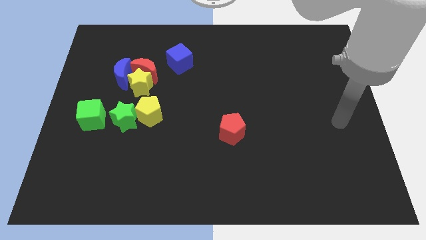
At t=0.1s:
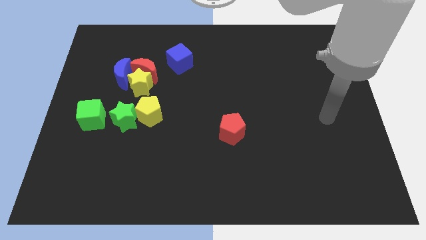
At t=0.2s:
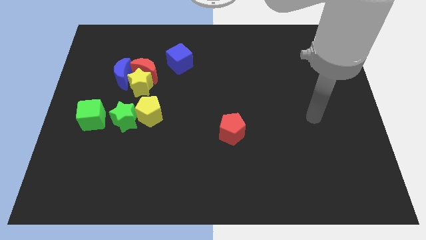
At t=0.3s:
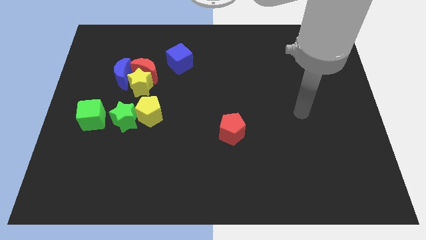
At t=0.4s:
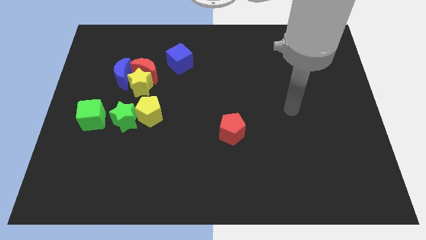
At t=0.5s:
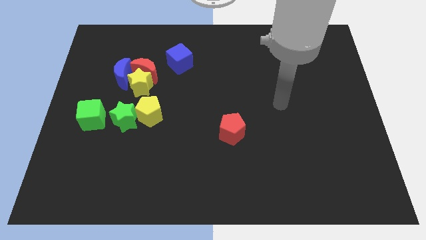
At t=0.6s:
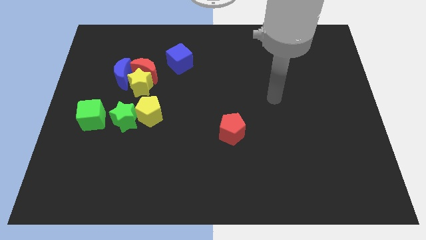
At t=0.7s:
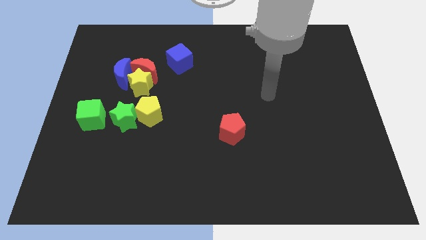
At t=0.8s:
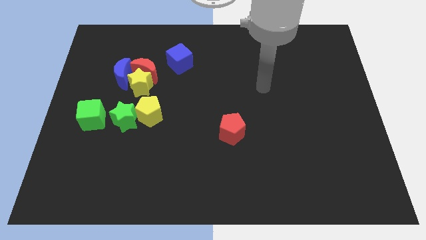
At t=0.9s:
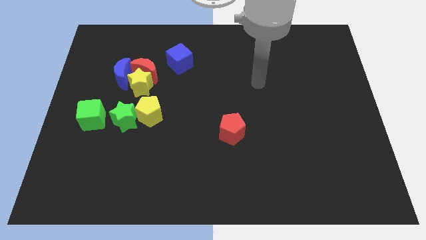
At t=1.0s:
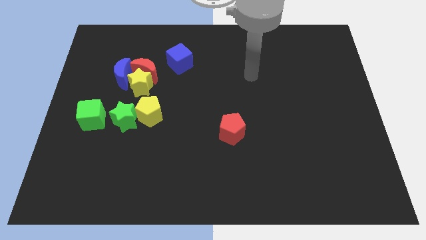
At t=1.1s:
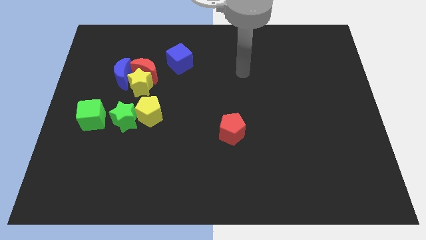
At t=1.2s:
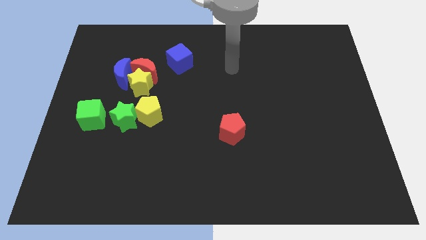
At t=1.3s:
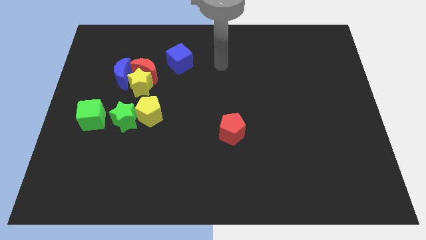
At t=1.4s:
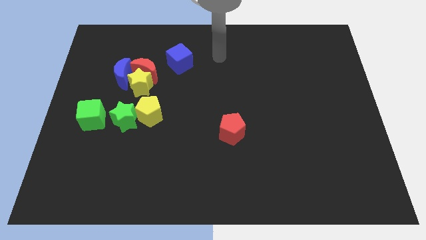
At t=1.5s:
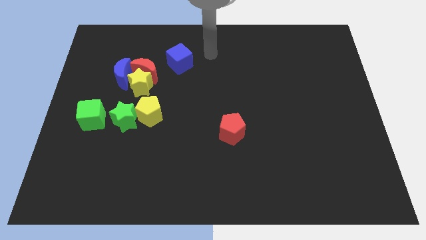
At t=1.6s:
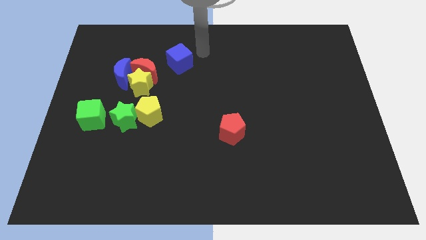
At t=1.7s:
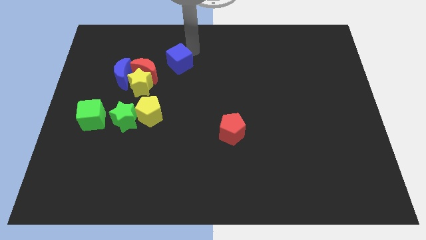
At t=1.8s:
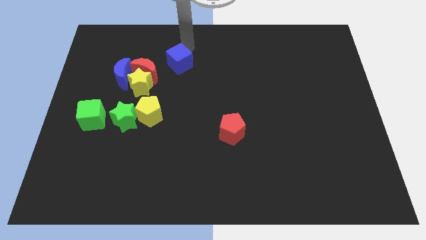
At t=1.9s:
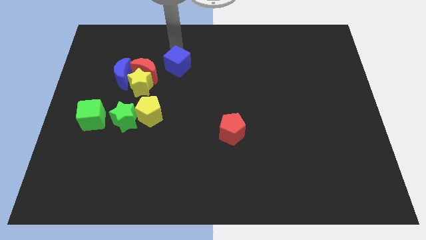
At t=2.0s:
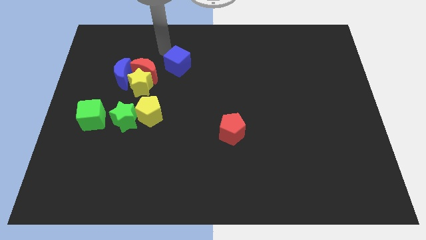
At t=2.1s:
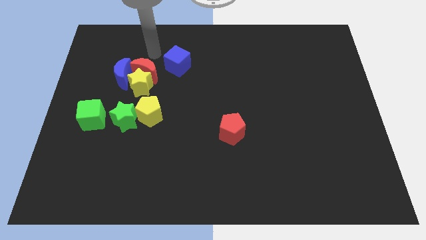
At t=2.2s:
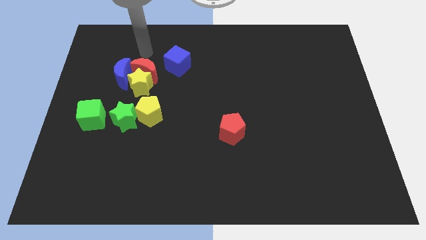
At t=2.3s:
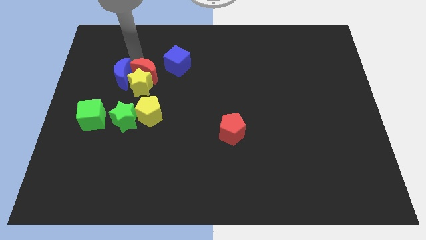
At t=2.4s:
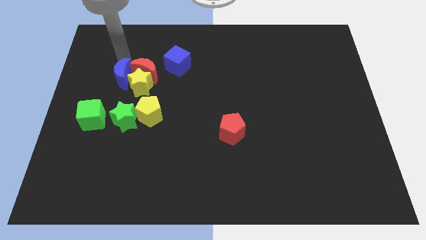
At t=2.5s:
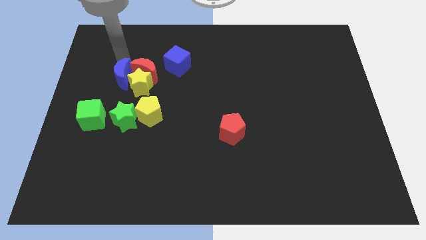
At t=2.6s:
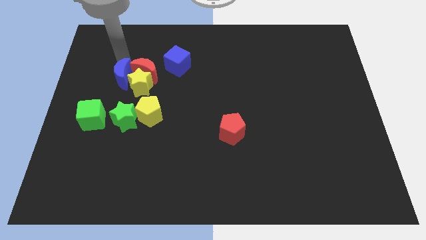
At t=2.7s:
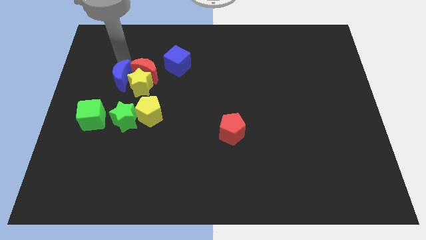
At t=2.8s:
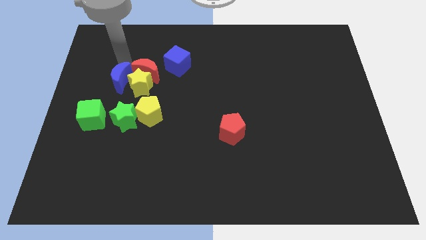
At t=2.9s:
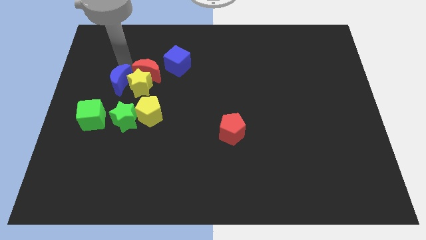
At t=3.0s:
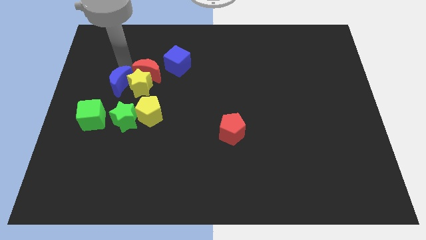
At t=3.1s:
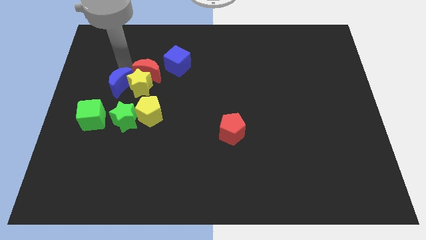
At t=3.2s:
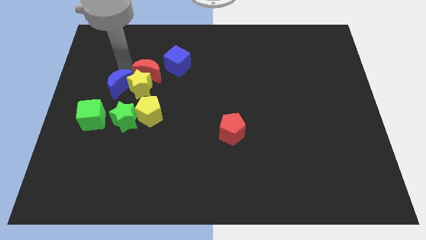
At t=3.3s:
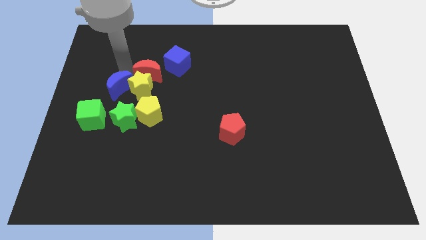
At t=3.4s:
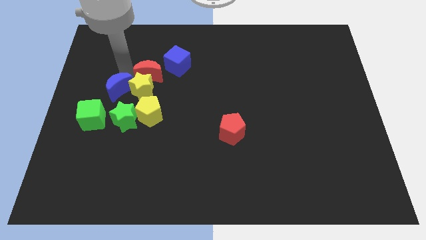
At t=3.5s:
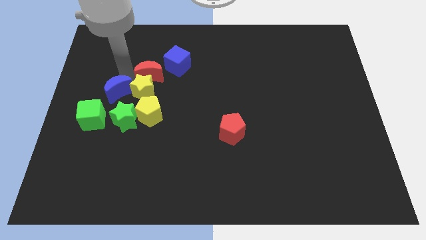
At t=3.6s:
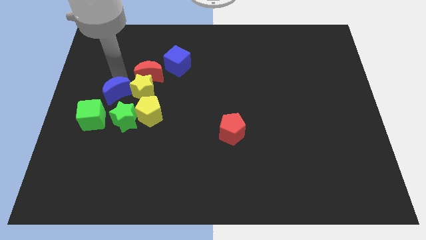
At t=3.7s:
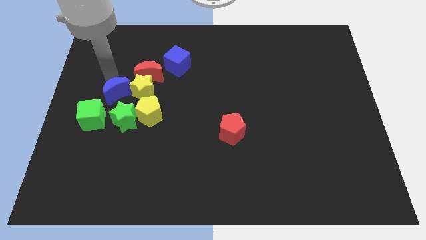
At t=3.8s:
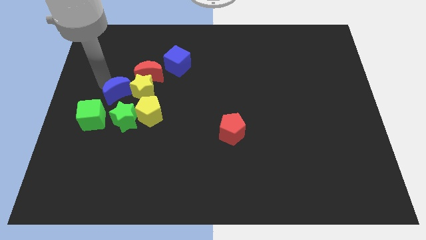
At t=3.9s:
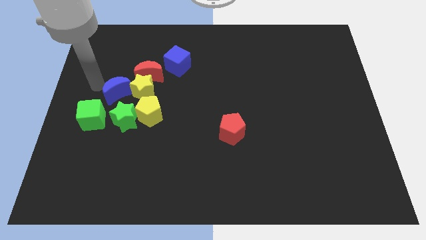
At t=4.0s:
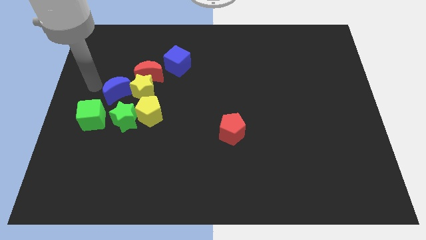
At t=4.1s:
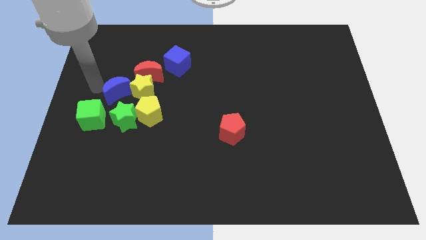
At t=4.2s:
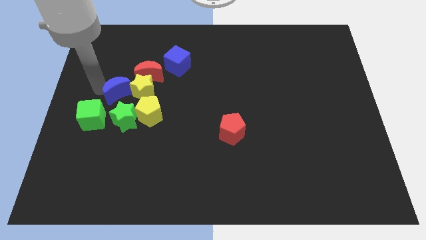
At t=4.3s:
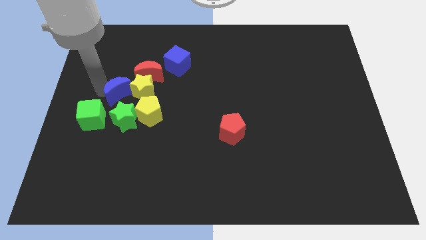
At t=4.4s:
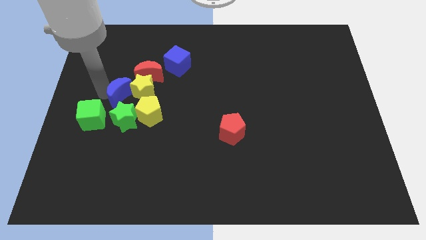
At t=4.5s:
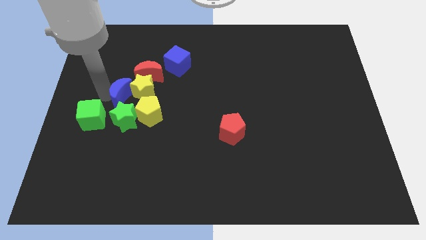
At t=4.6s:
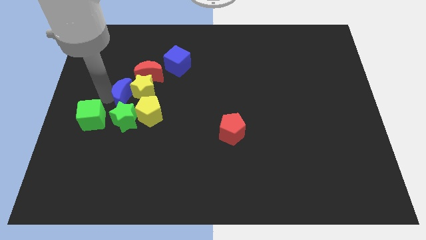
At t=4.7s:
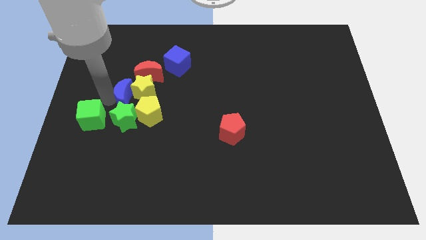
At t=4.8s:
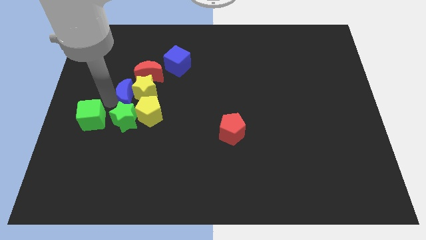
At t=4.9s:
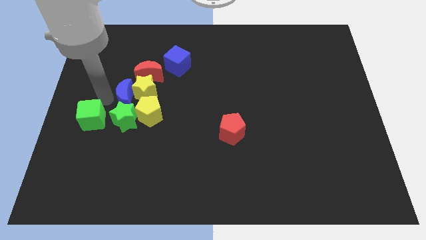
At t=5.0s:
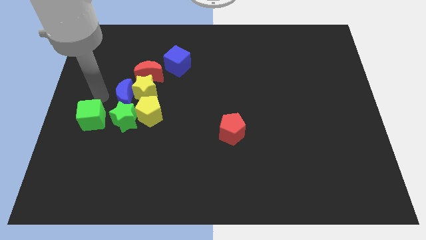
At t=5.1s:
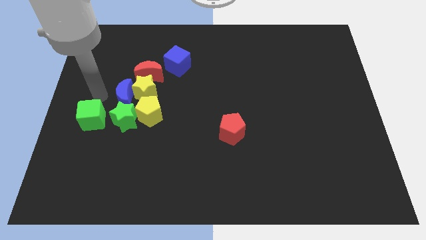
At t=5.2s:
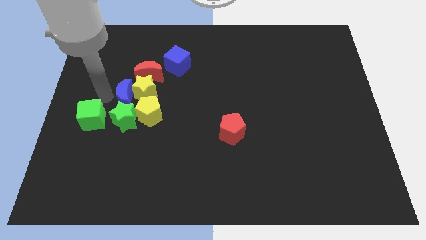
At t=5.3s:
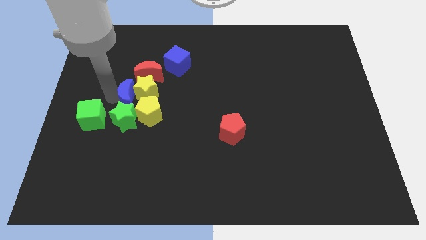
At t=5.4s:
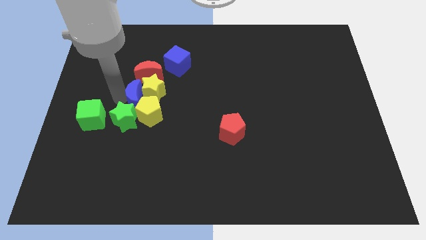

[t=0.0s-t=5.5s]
slide the blue moon down and then right a little bit

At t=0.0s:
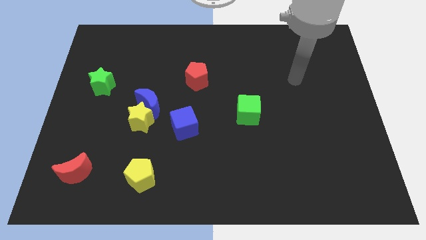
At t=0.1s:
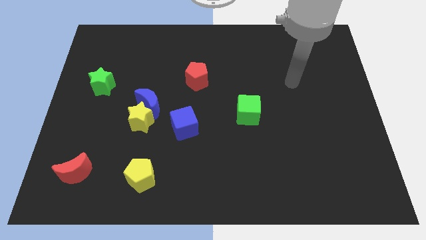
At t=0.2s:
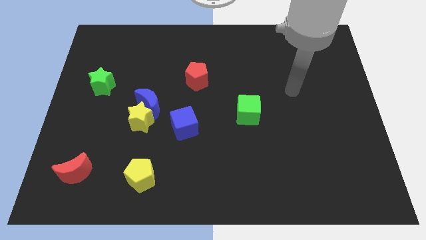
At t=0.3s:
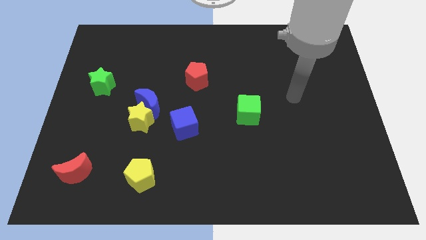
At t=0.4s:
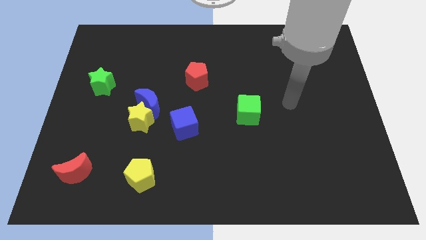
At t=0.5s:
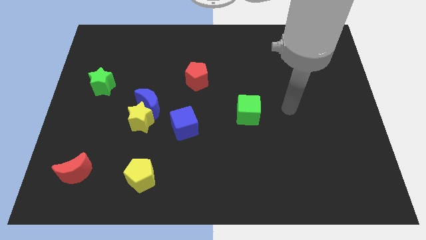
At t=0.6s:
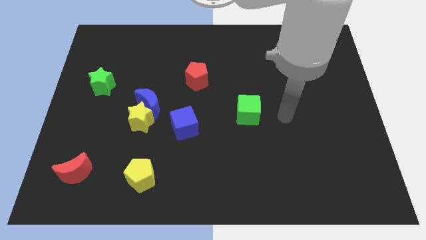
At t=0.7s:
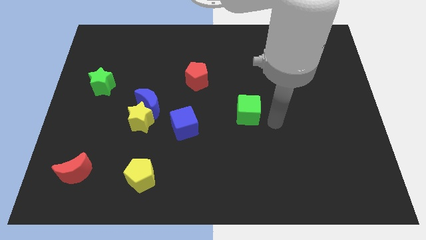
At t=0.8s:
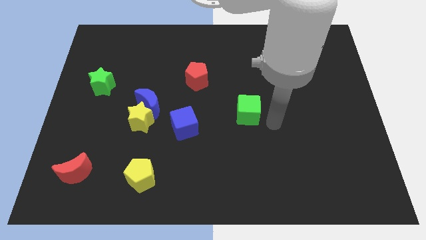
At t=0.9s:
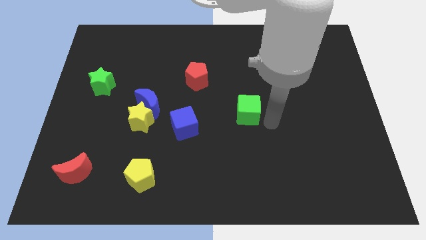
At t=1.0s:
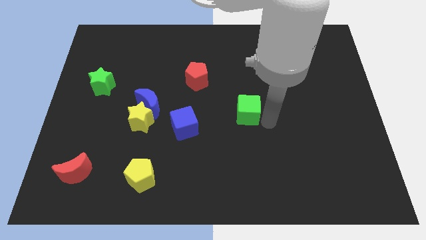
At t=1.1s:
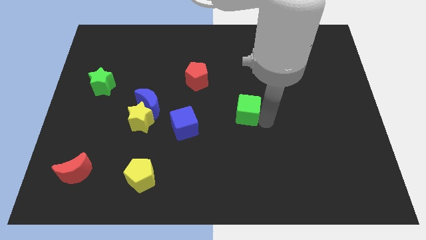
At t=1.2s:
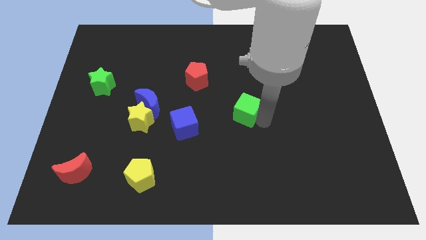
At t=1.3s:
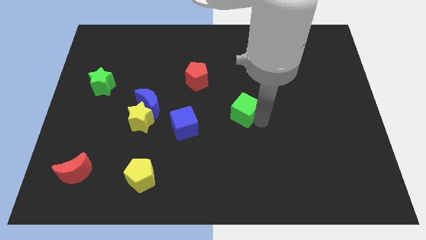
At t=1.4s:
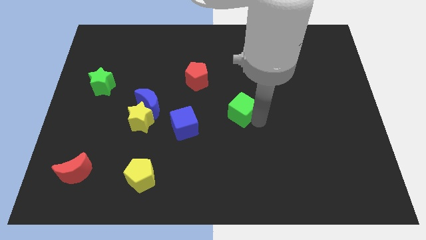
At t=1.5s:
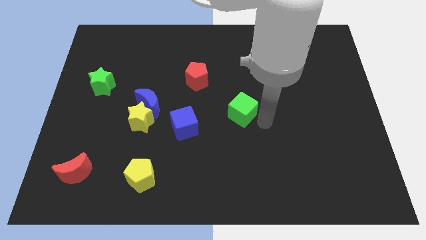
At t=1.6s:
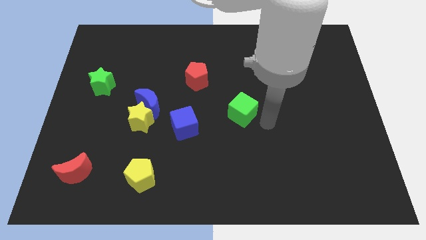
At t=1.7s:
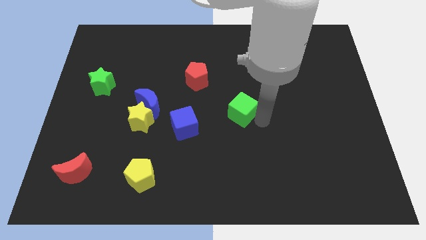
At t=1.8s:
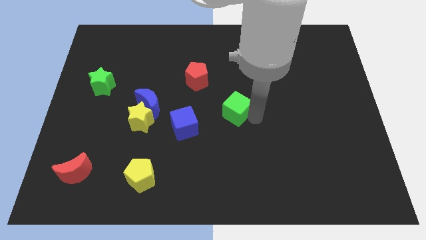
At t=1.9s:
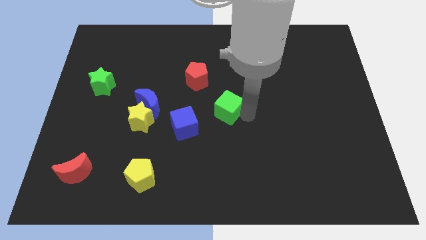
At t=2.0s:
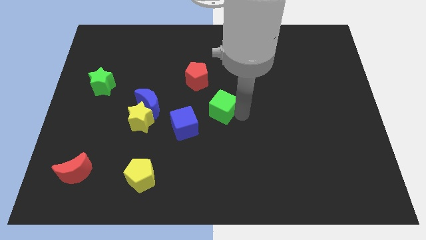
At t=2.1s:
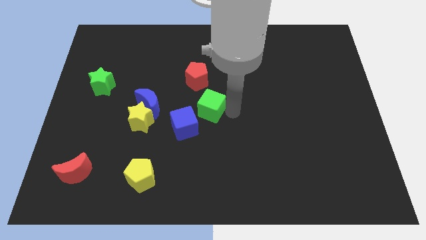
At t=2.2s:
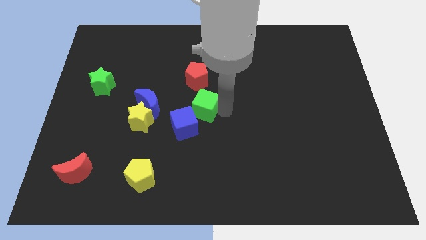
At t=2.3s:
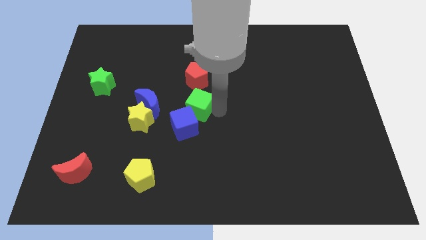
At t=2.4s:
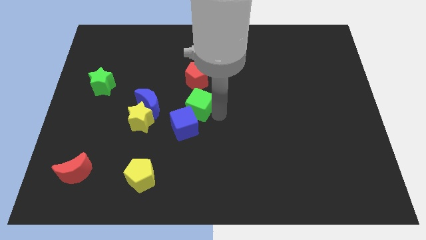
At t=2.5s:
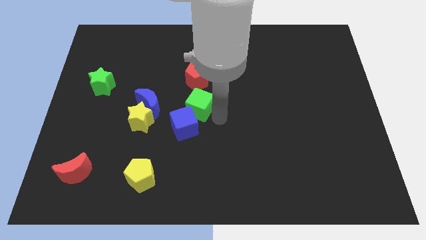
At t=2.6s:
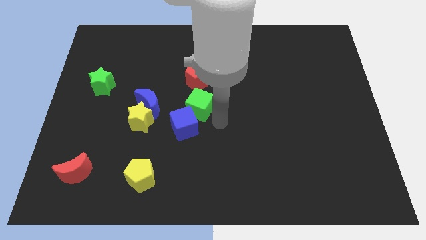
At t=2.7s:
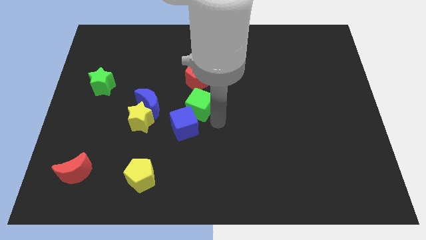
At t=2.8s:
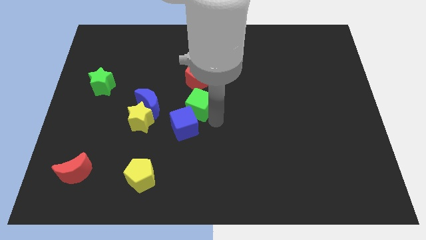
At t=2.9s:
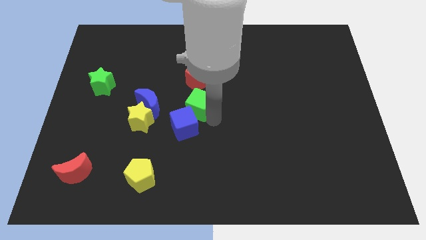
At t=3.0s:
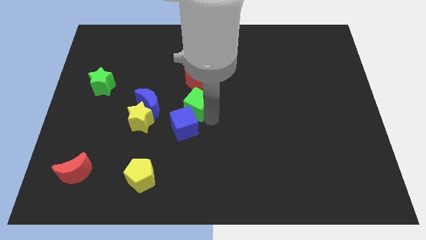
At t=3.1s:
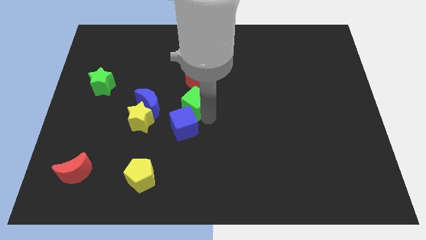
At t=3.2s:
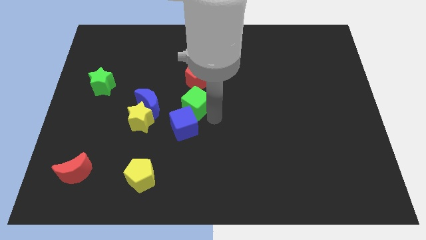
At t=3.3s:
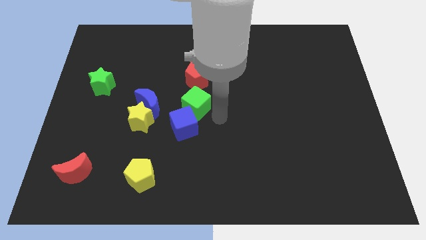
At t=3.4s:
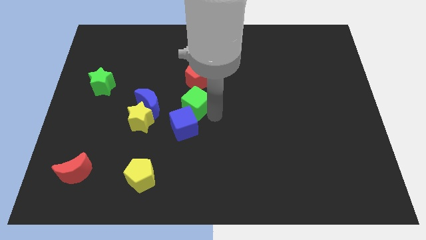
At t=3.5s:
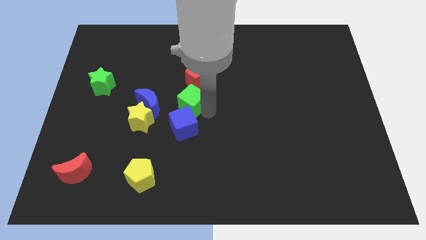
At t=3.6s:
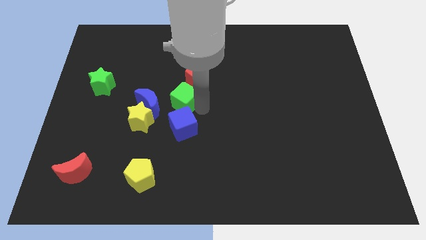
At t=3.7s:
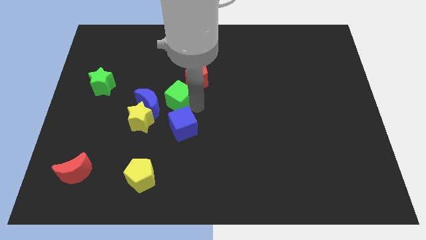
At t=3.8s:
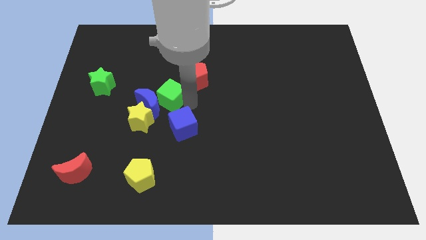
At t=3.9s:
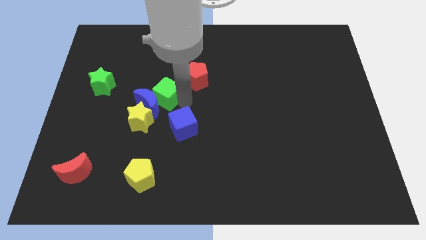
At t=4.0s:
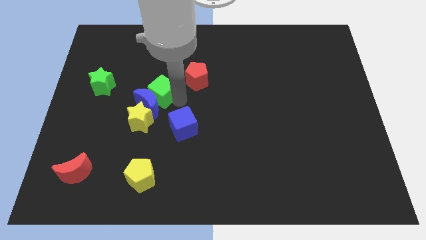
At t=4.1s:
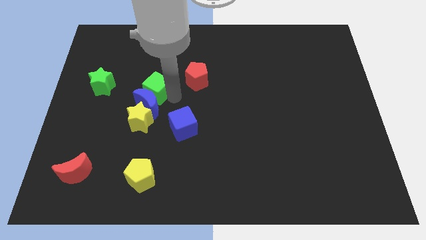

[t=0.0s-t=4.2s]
push the green cube left
